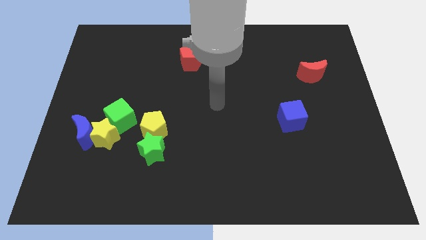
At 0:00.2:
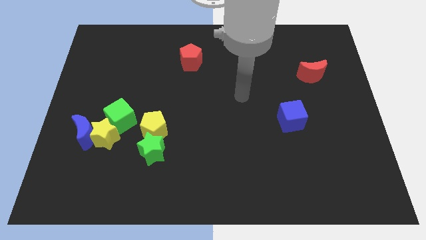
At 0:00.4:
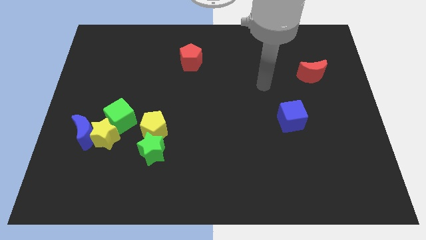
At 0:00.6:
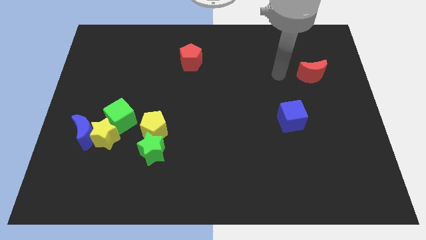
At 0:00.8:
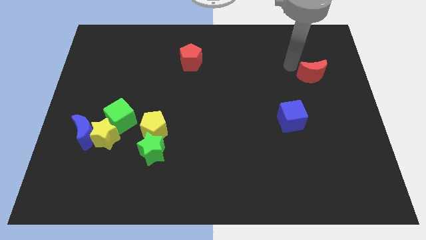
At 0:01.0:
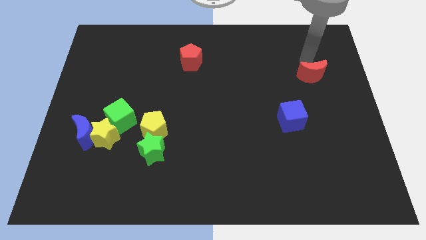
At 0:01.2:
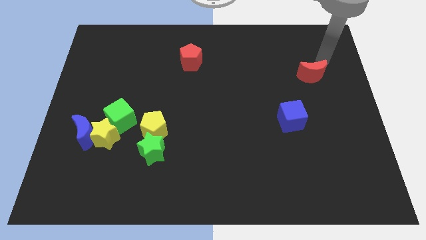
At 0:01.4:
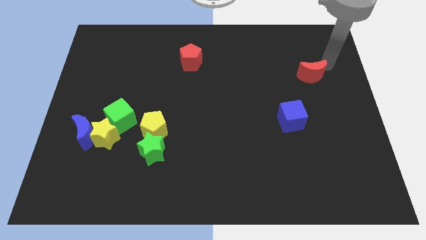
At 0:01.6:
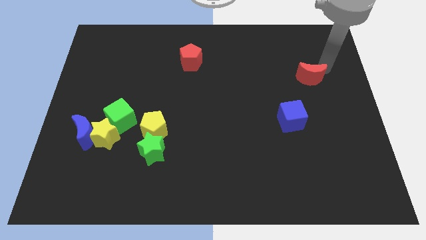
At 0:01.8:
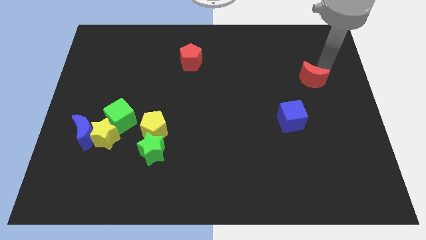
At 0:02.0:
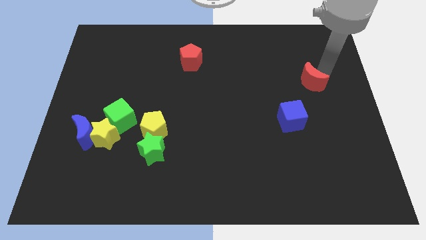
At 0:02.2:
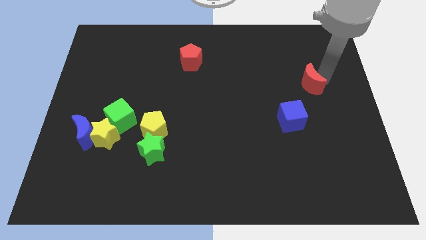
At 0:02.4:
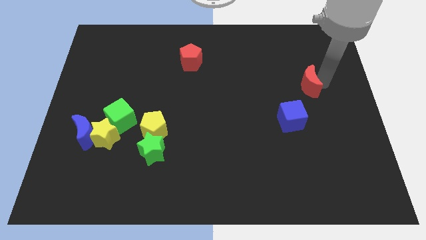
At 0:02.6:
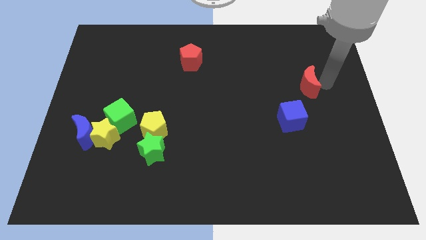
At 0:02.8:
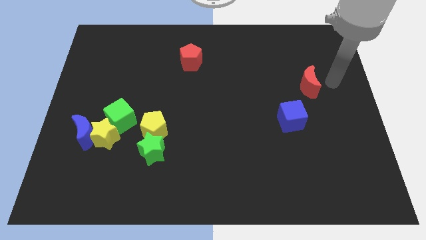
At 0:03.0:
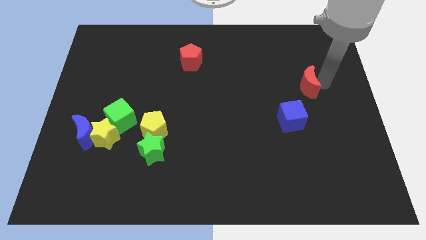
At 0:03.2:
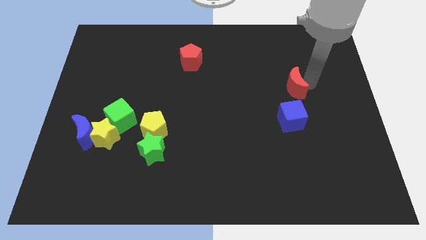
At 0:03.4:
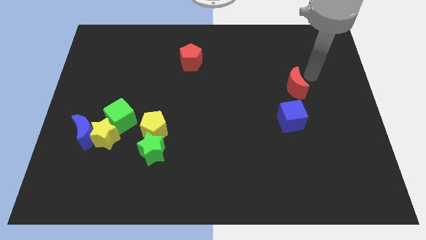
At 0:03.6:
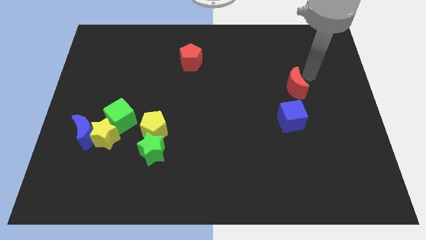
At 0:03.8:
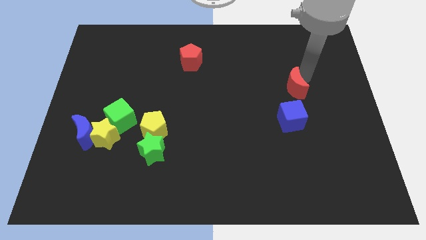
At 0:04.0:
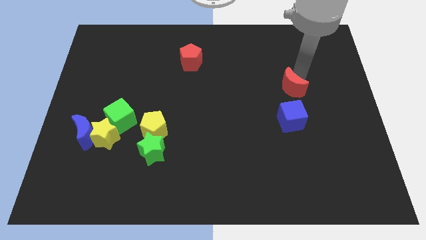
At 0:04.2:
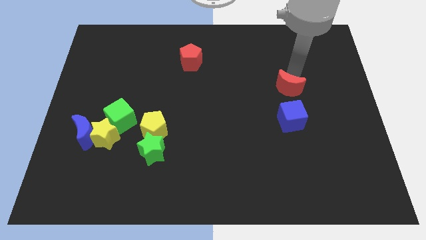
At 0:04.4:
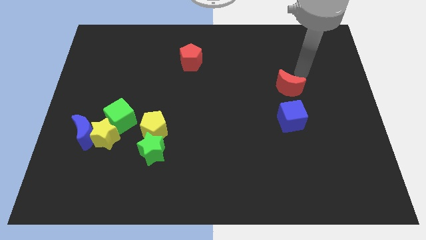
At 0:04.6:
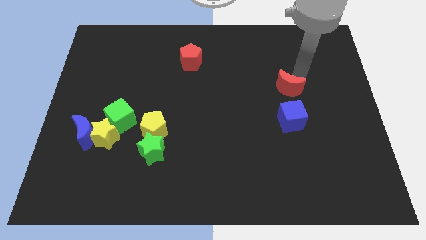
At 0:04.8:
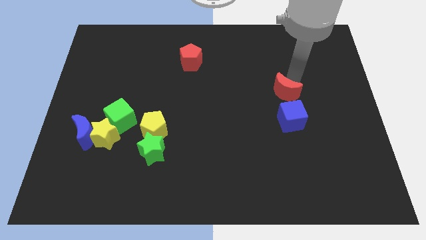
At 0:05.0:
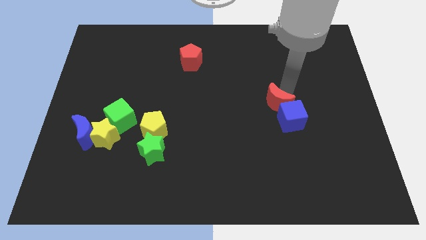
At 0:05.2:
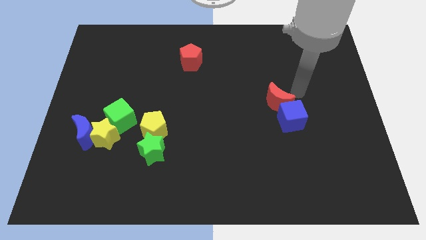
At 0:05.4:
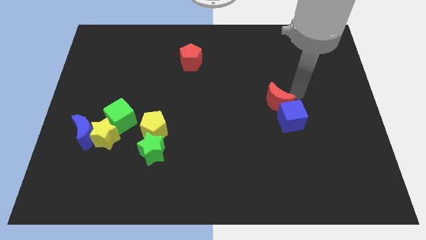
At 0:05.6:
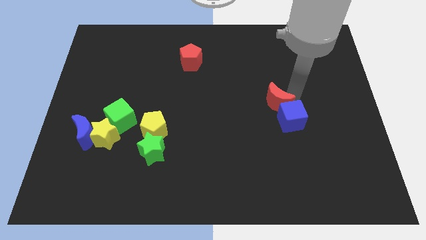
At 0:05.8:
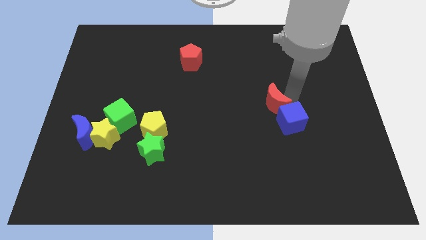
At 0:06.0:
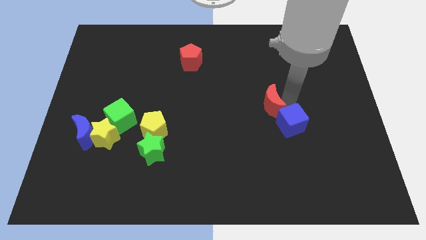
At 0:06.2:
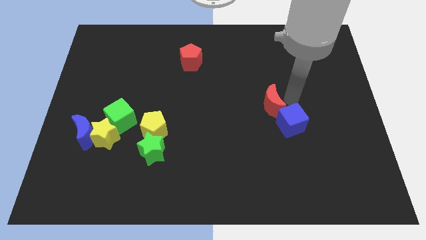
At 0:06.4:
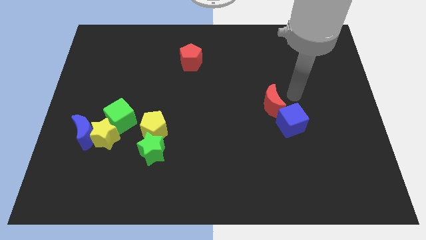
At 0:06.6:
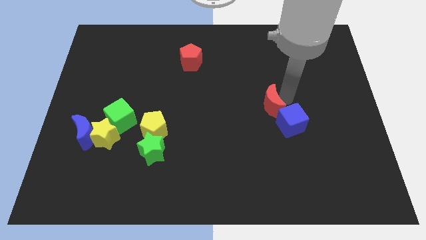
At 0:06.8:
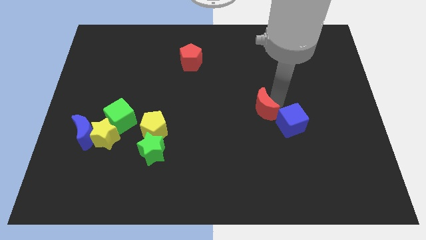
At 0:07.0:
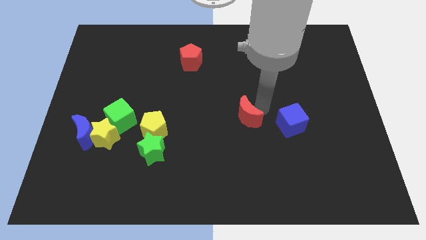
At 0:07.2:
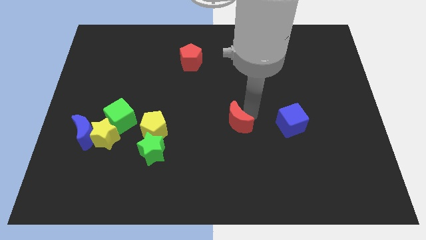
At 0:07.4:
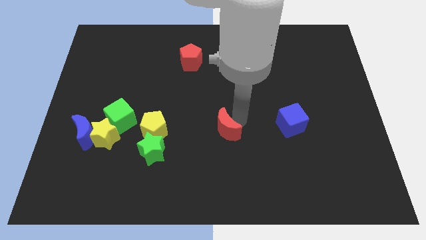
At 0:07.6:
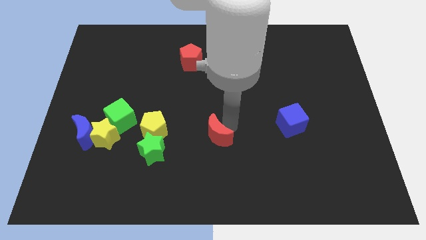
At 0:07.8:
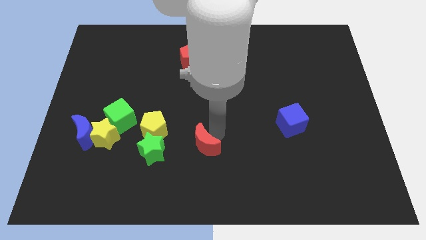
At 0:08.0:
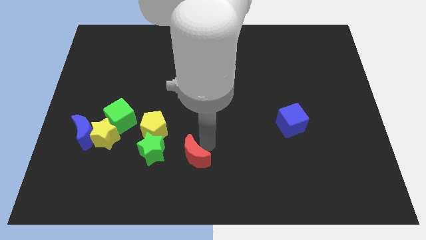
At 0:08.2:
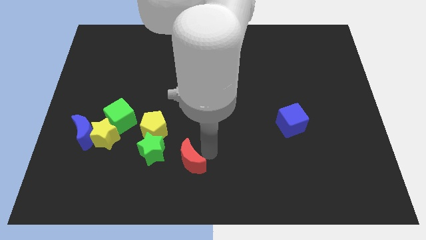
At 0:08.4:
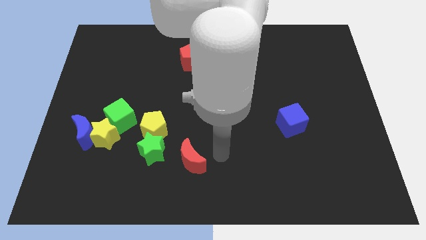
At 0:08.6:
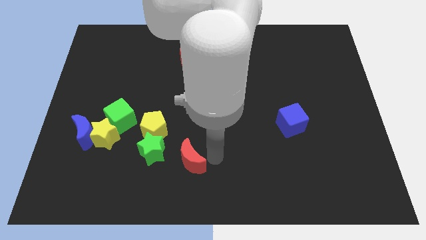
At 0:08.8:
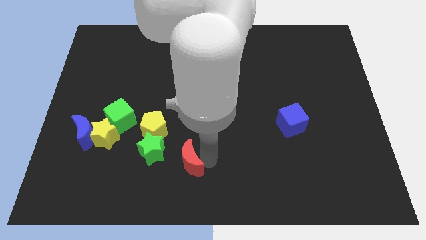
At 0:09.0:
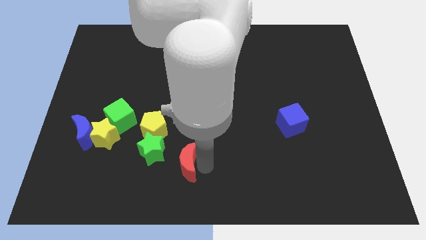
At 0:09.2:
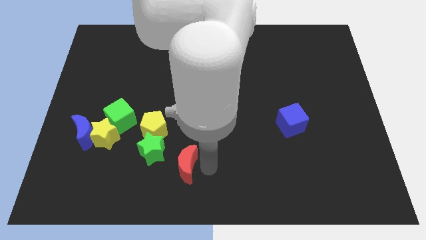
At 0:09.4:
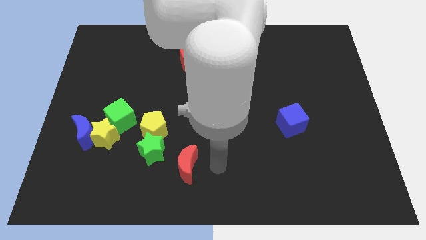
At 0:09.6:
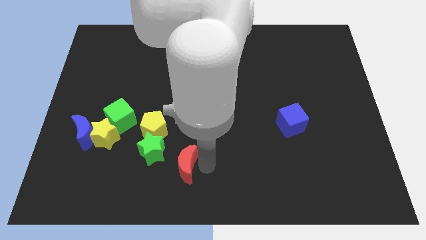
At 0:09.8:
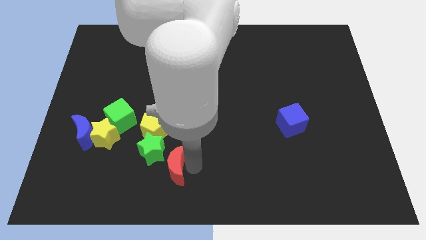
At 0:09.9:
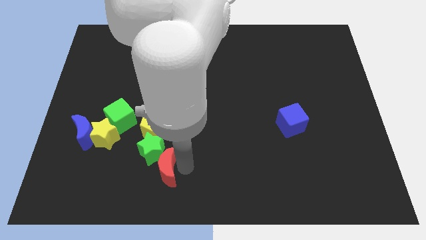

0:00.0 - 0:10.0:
put the red moon below the yellow pentagon
